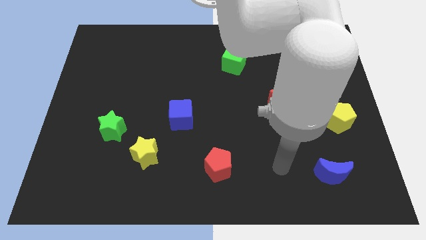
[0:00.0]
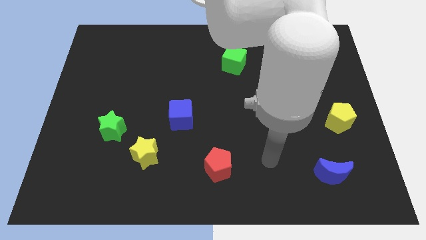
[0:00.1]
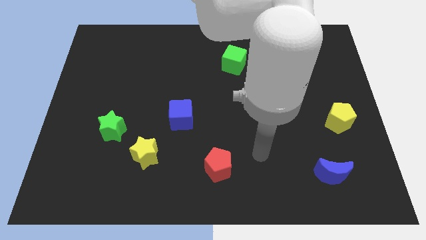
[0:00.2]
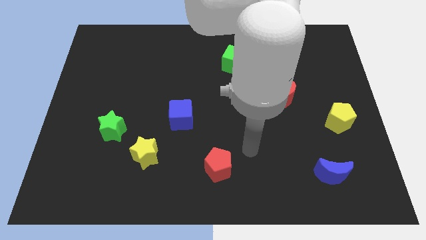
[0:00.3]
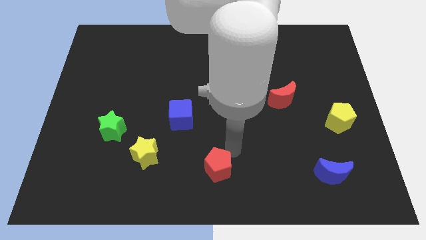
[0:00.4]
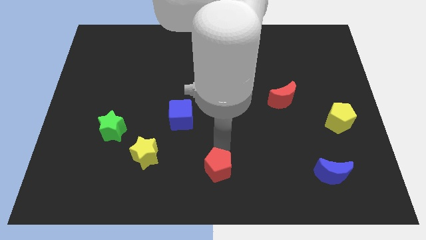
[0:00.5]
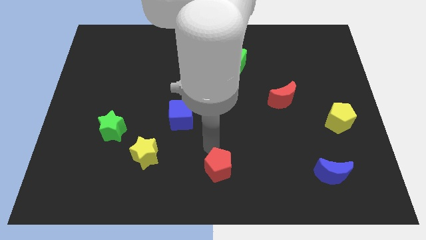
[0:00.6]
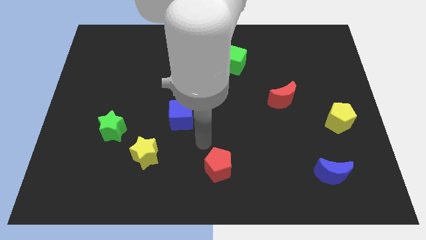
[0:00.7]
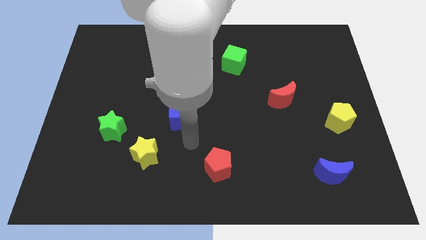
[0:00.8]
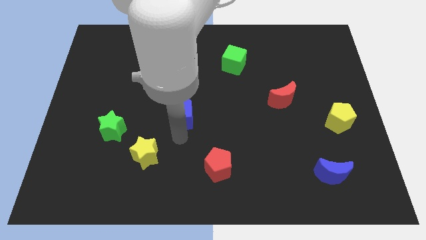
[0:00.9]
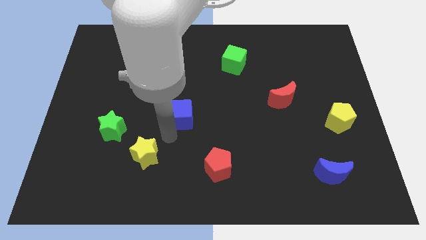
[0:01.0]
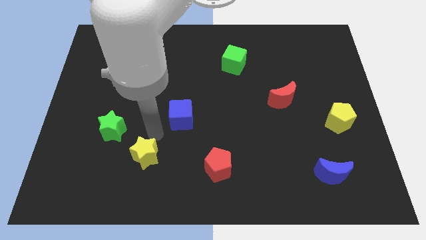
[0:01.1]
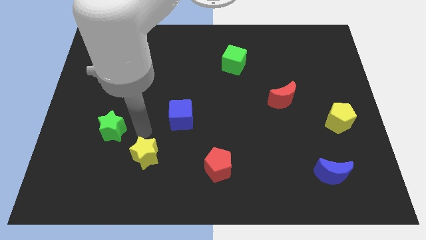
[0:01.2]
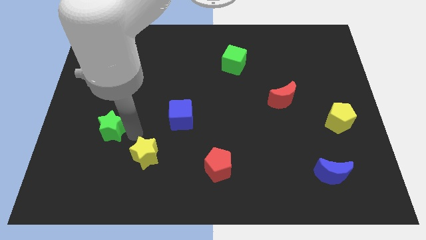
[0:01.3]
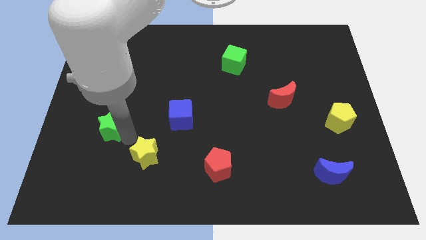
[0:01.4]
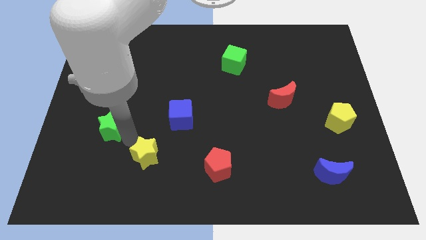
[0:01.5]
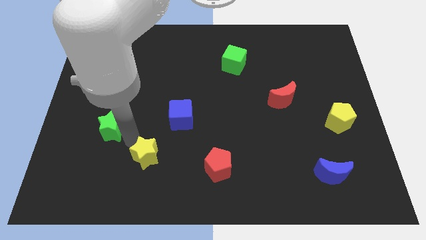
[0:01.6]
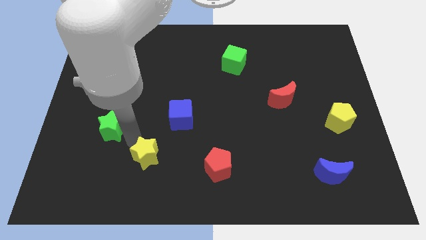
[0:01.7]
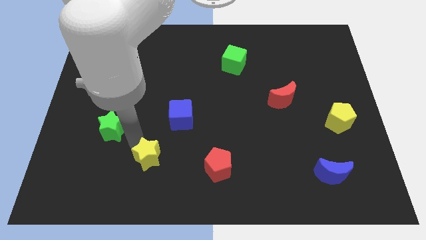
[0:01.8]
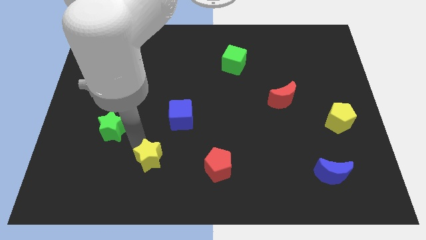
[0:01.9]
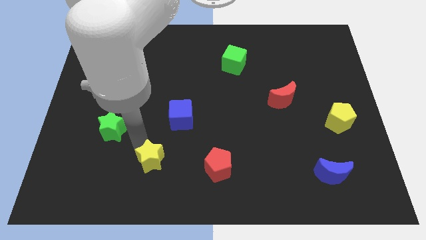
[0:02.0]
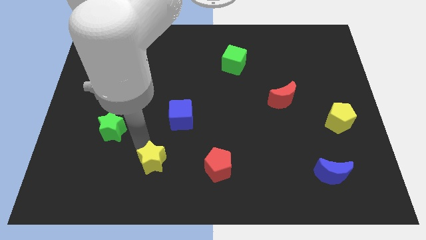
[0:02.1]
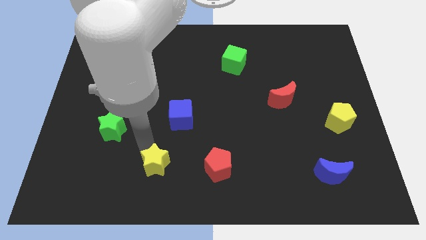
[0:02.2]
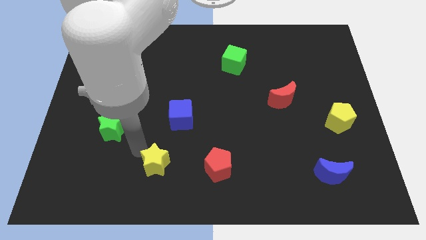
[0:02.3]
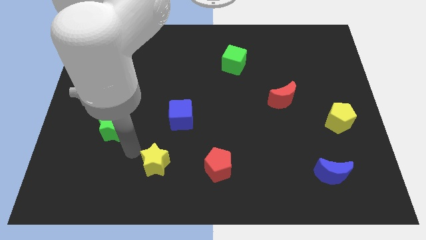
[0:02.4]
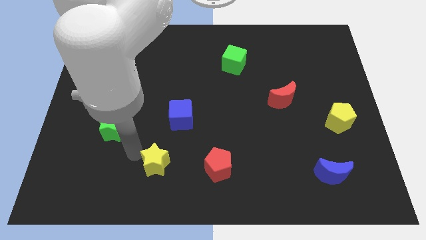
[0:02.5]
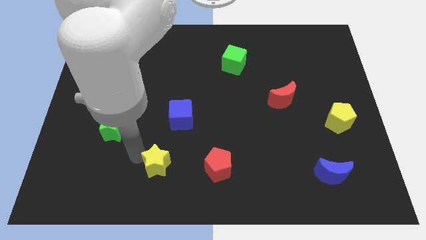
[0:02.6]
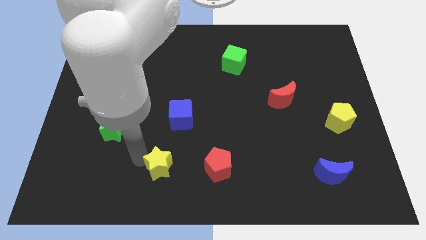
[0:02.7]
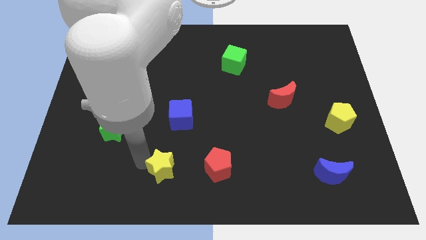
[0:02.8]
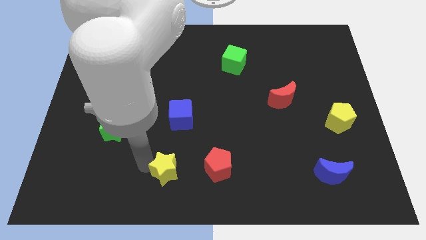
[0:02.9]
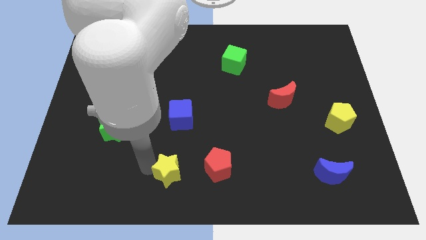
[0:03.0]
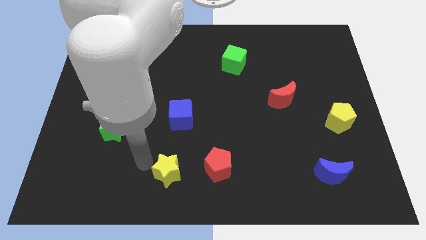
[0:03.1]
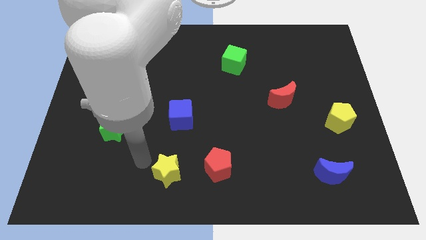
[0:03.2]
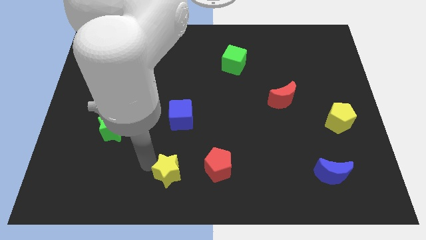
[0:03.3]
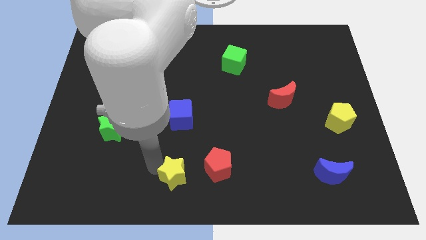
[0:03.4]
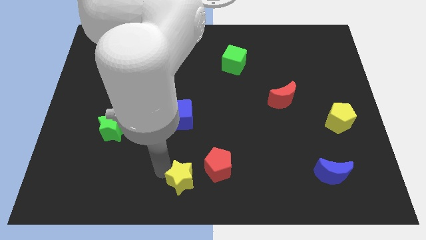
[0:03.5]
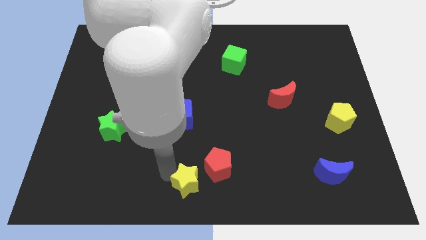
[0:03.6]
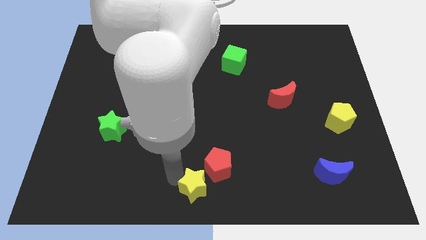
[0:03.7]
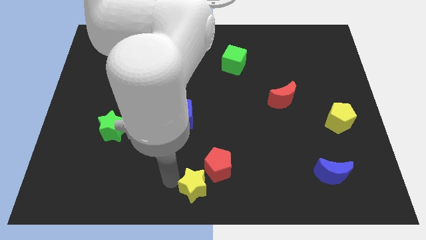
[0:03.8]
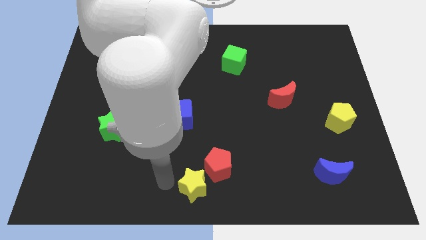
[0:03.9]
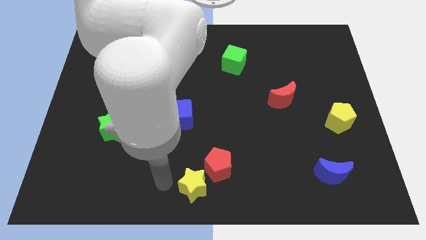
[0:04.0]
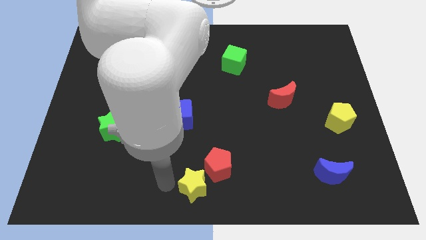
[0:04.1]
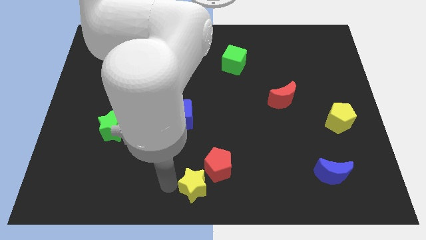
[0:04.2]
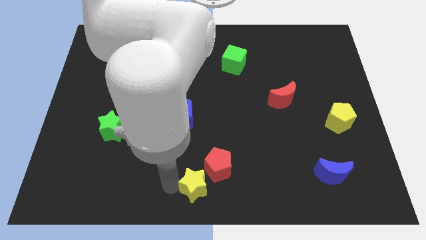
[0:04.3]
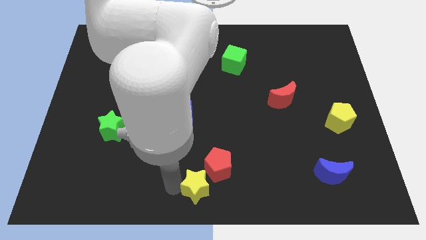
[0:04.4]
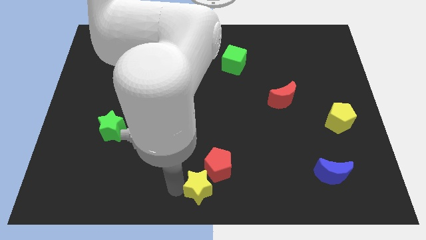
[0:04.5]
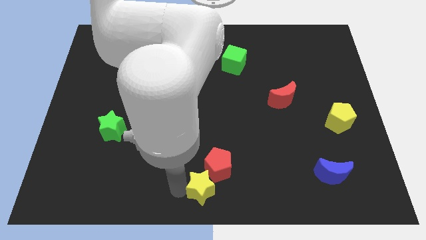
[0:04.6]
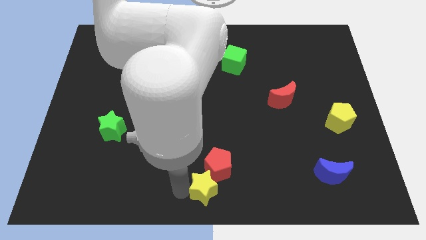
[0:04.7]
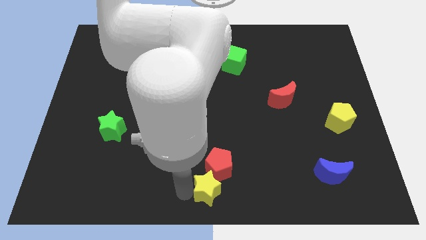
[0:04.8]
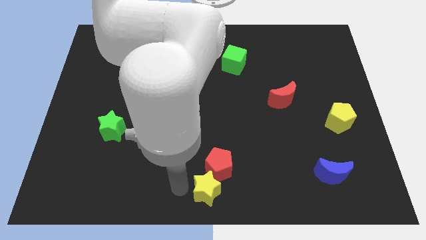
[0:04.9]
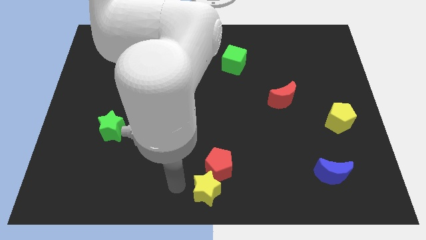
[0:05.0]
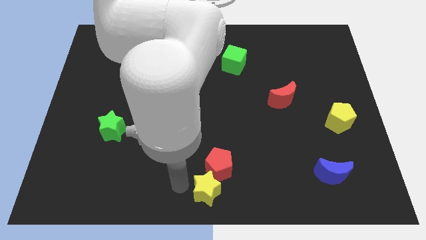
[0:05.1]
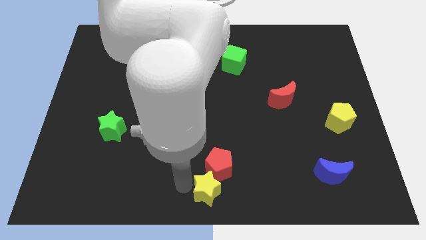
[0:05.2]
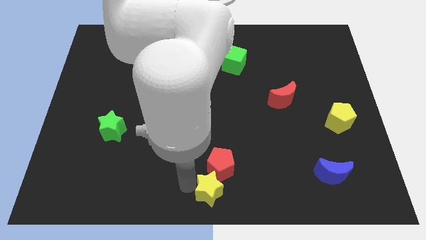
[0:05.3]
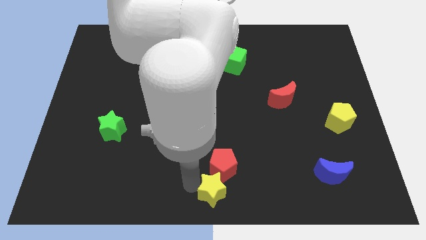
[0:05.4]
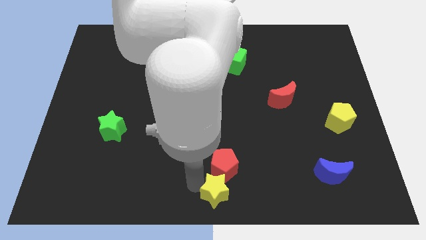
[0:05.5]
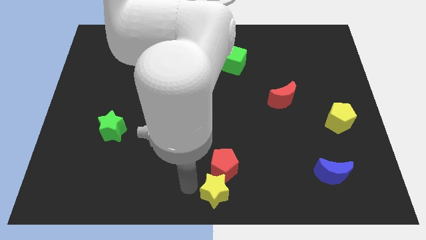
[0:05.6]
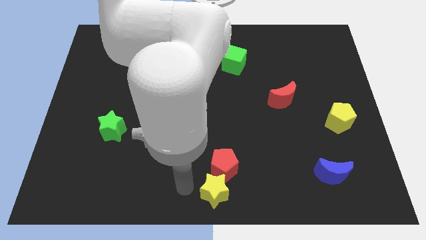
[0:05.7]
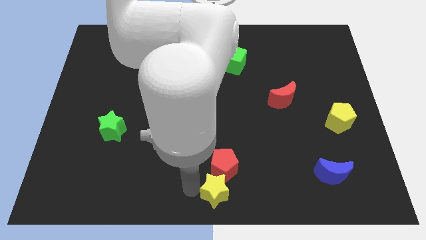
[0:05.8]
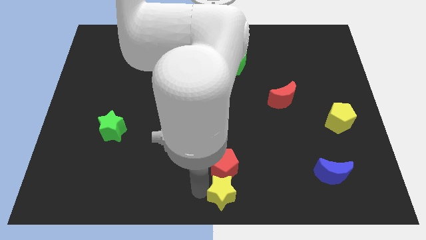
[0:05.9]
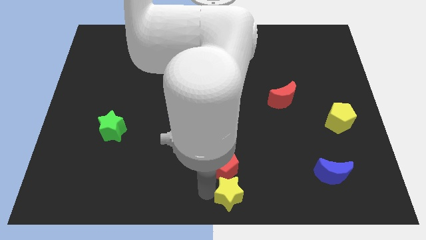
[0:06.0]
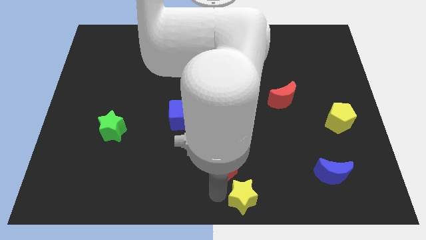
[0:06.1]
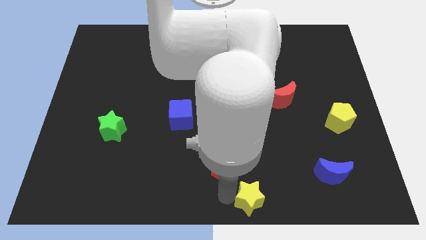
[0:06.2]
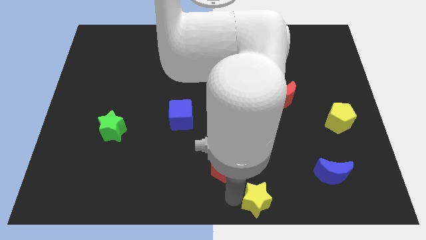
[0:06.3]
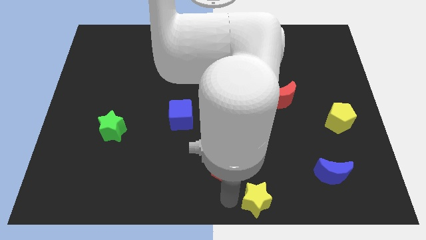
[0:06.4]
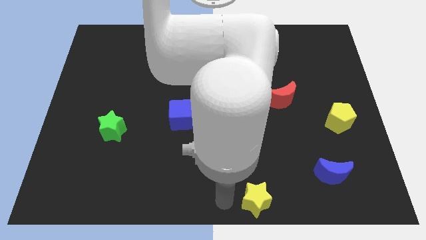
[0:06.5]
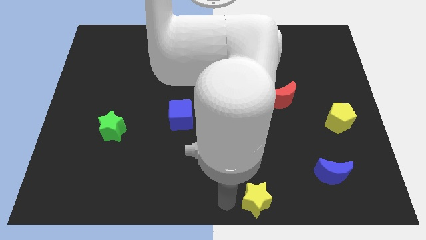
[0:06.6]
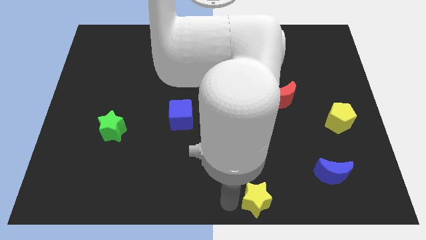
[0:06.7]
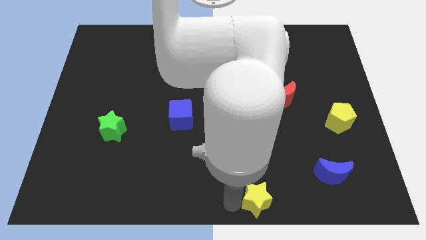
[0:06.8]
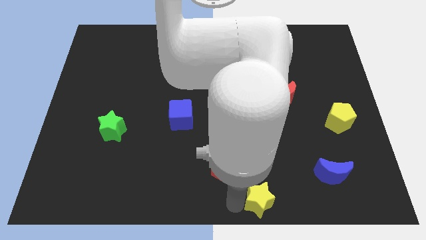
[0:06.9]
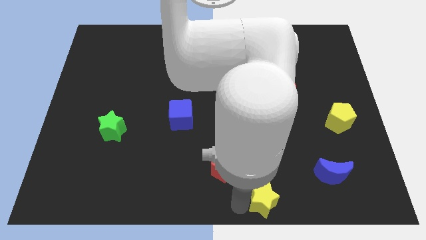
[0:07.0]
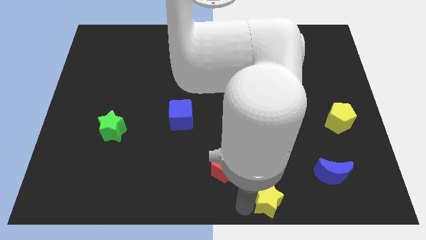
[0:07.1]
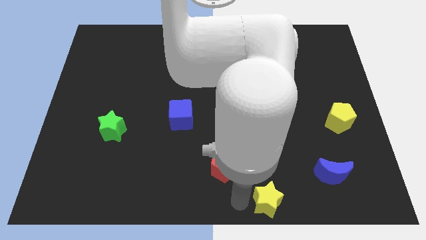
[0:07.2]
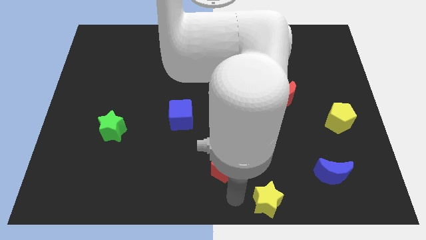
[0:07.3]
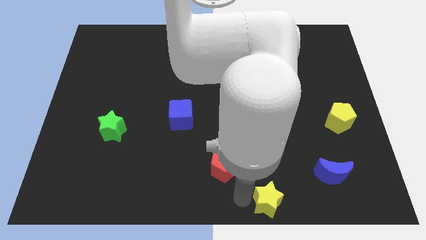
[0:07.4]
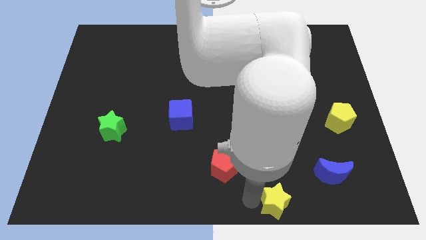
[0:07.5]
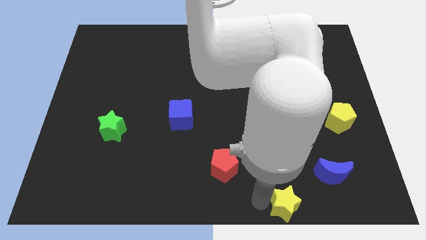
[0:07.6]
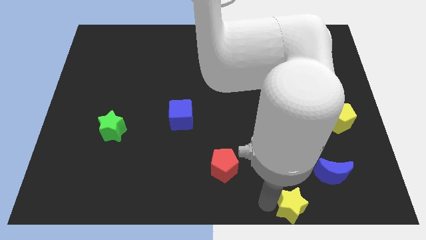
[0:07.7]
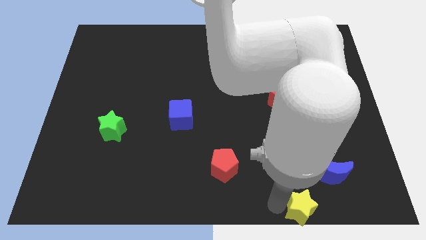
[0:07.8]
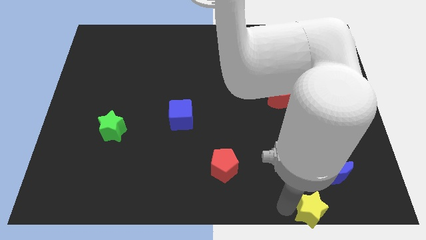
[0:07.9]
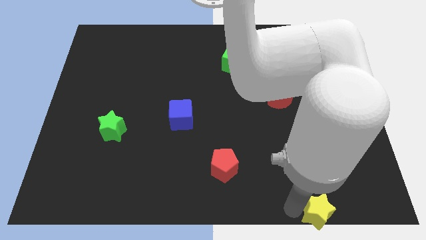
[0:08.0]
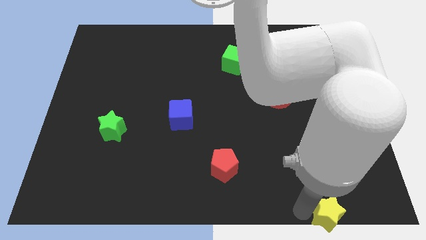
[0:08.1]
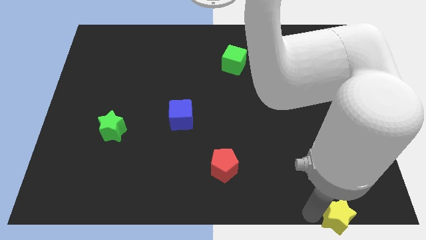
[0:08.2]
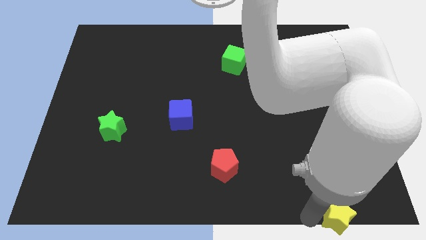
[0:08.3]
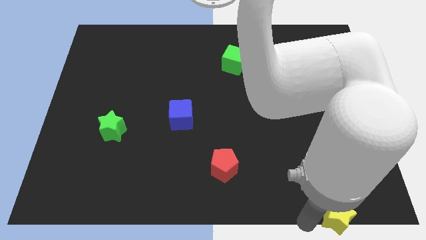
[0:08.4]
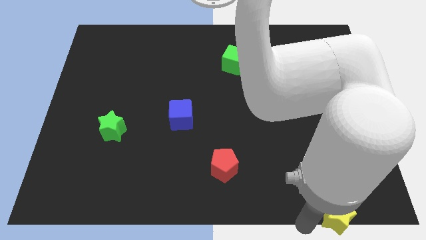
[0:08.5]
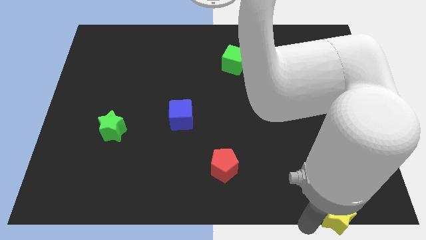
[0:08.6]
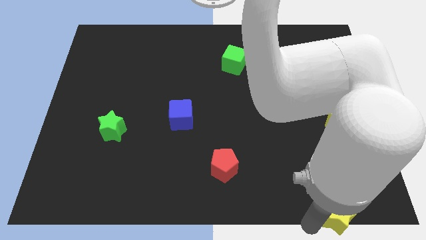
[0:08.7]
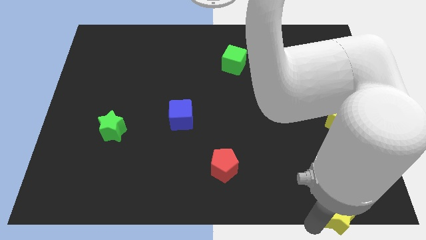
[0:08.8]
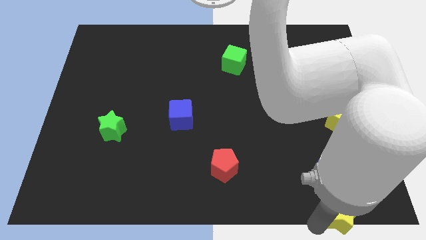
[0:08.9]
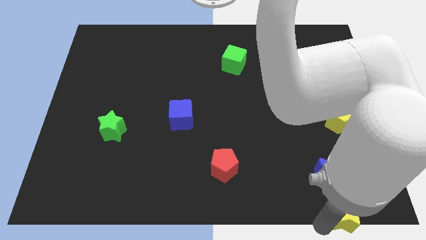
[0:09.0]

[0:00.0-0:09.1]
move the yellow star to the bottom right corner
